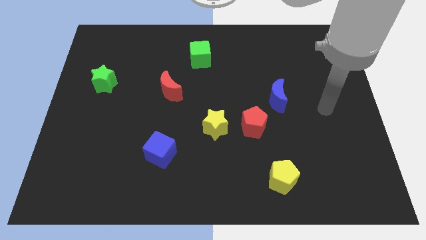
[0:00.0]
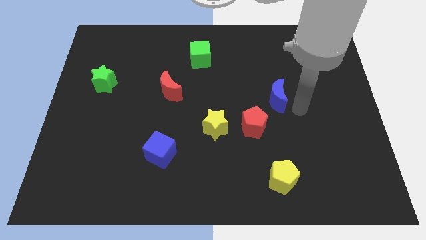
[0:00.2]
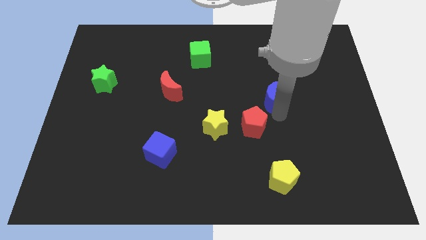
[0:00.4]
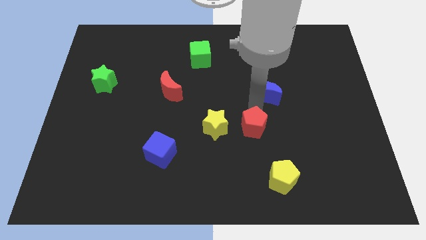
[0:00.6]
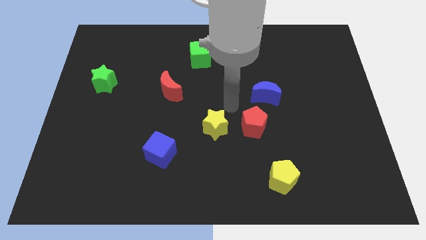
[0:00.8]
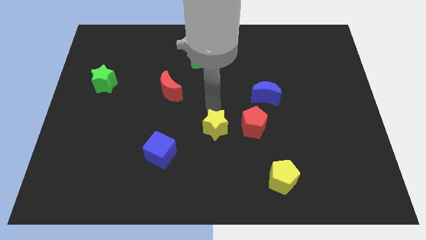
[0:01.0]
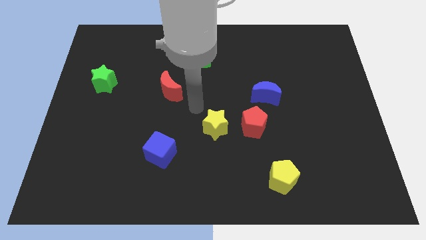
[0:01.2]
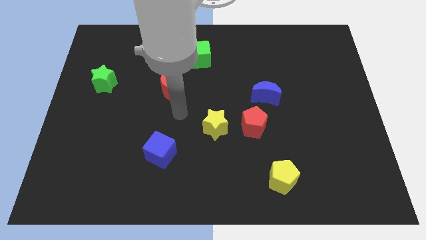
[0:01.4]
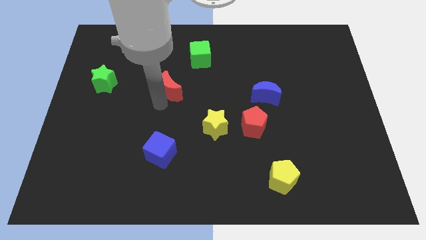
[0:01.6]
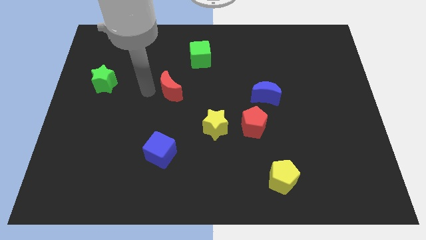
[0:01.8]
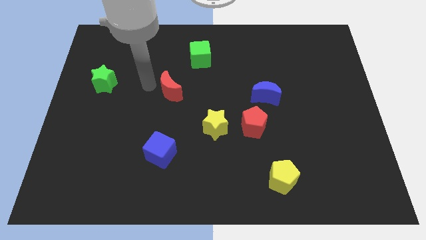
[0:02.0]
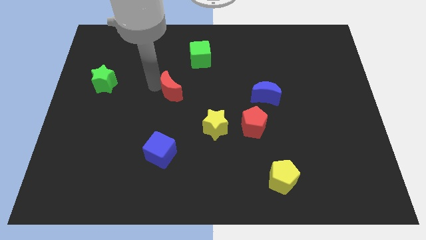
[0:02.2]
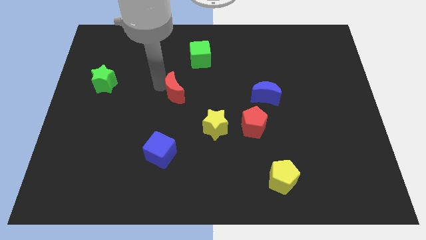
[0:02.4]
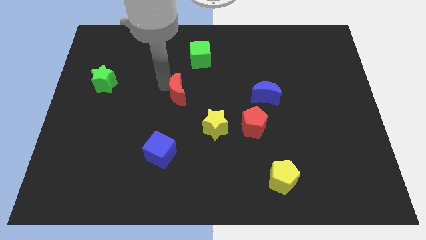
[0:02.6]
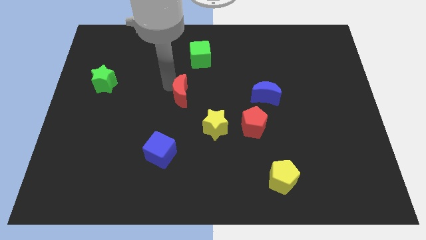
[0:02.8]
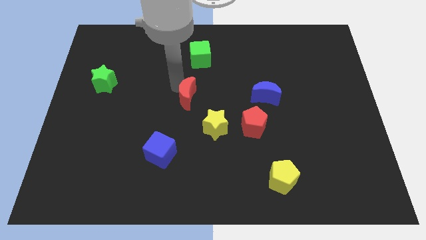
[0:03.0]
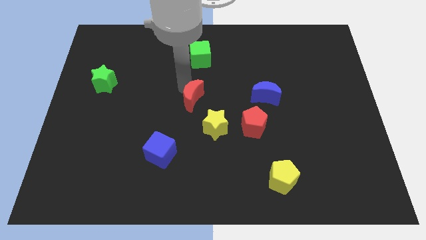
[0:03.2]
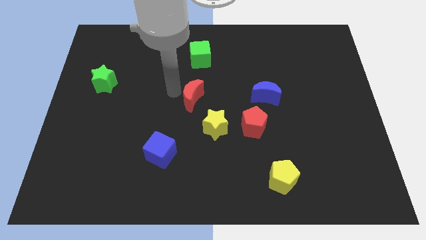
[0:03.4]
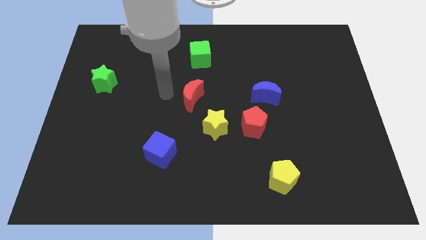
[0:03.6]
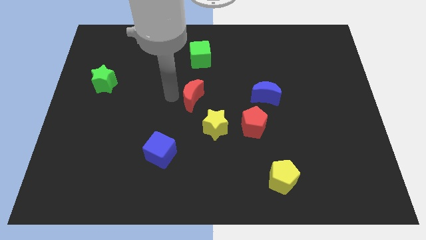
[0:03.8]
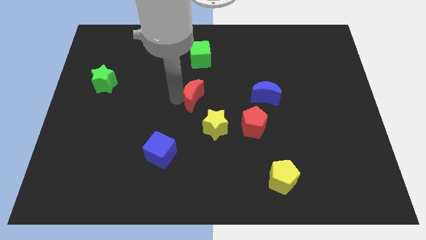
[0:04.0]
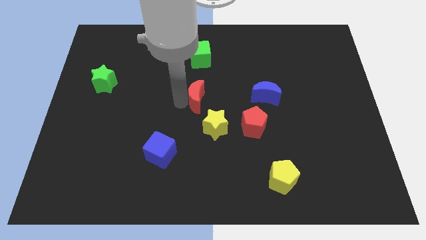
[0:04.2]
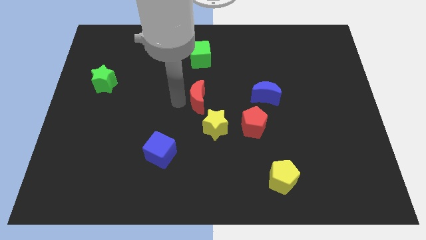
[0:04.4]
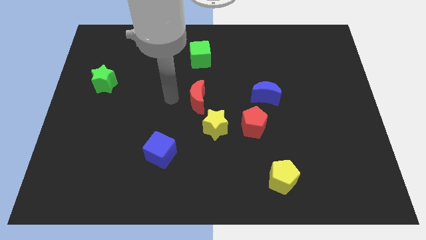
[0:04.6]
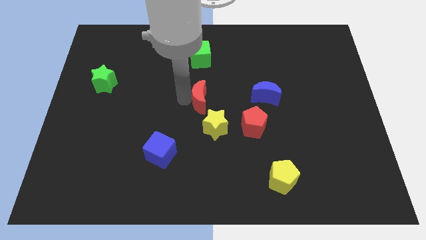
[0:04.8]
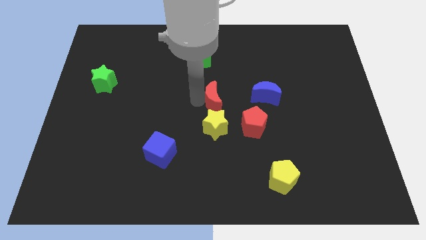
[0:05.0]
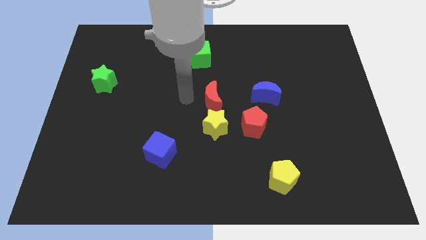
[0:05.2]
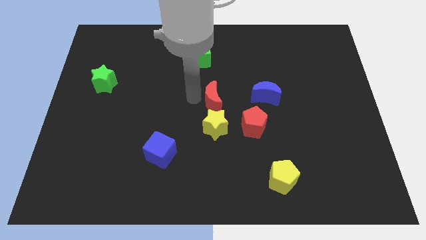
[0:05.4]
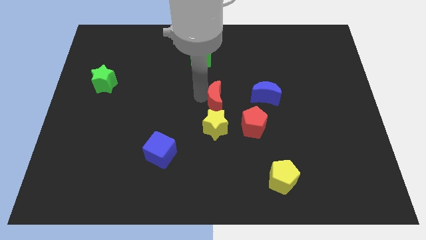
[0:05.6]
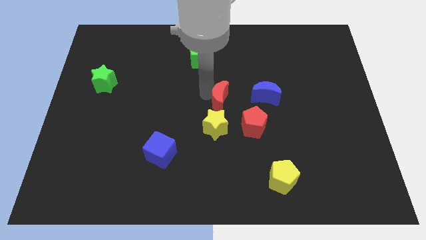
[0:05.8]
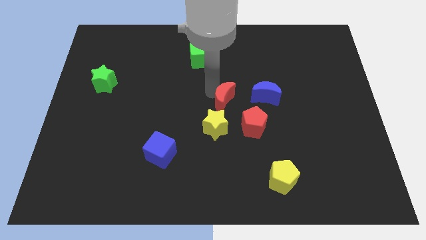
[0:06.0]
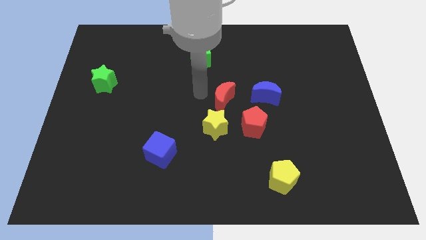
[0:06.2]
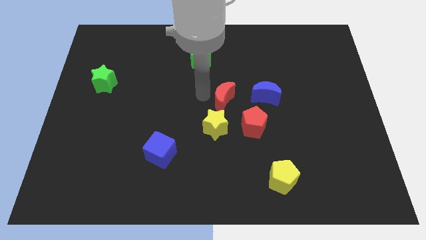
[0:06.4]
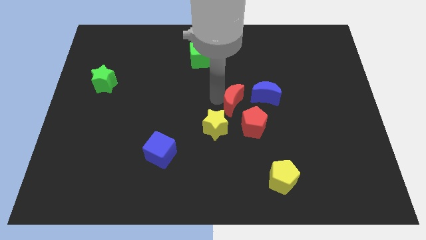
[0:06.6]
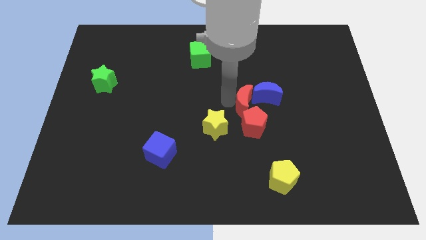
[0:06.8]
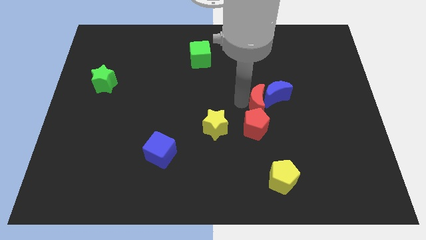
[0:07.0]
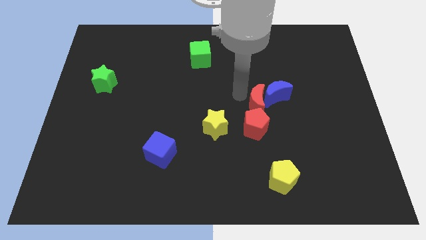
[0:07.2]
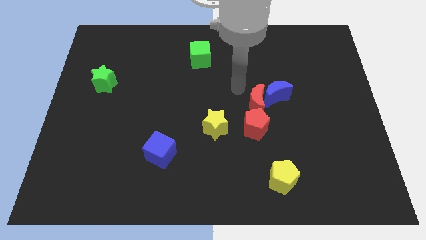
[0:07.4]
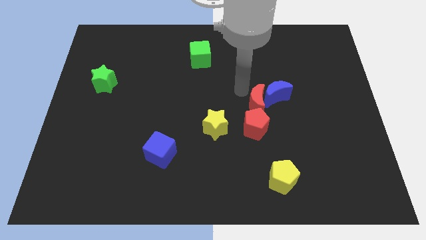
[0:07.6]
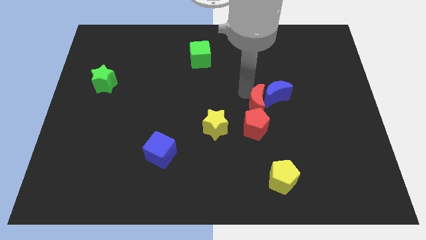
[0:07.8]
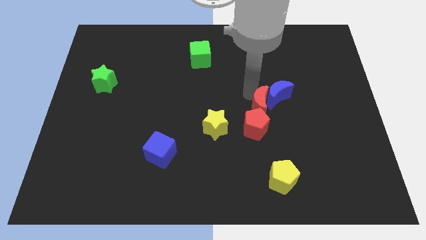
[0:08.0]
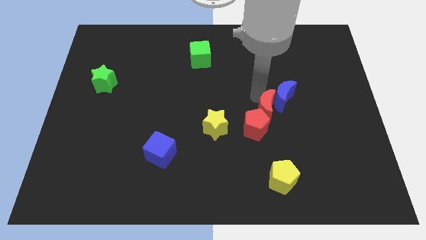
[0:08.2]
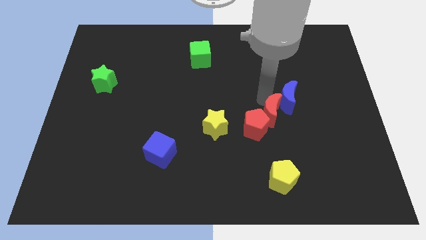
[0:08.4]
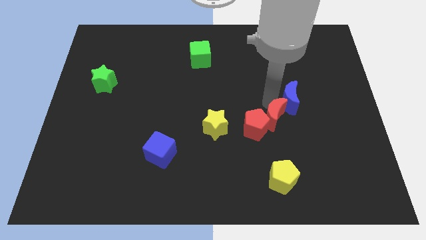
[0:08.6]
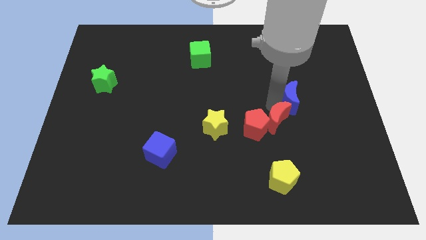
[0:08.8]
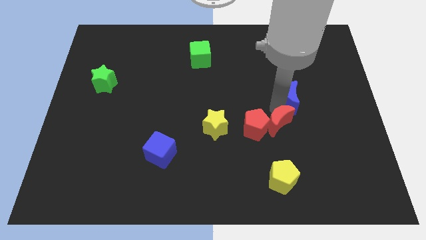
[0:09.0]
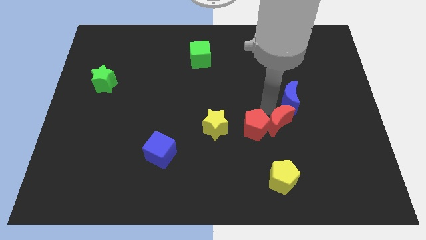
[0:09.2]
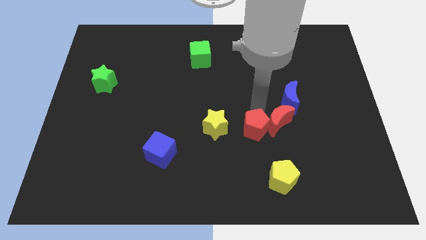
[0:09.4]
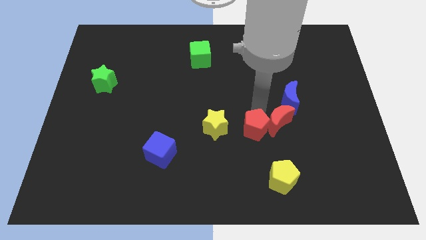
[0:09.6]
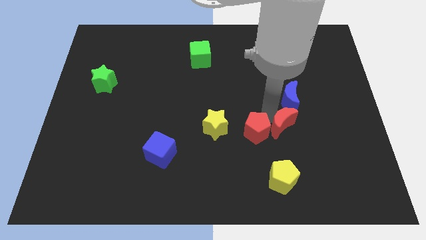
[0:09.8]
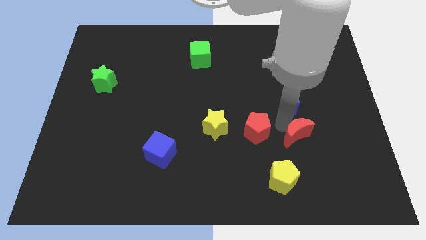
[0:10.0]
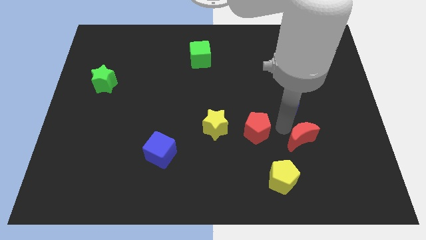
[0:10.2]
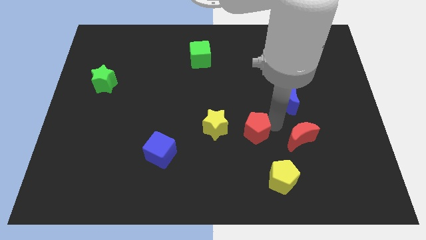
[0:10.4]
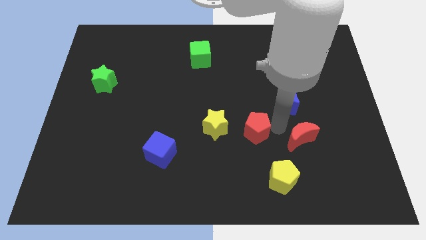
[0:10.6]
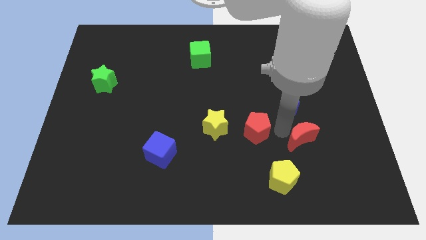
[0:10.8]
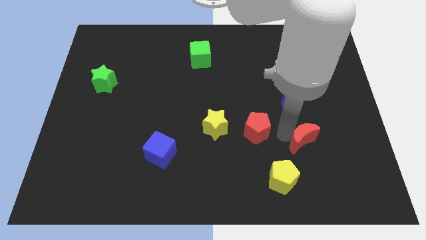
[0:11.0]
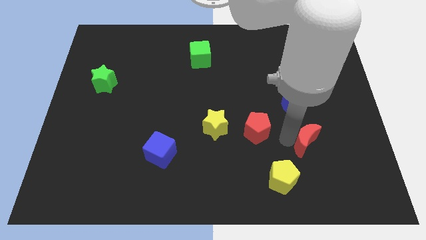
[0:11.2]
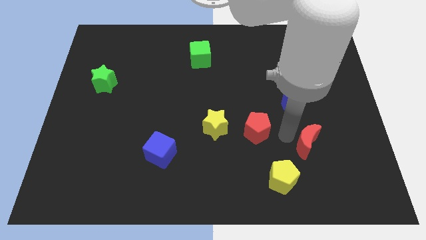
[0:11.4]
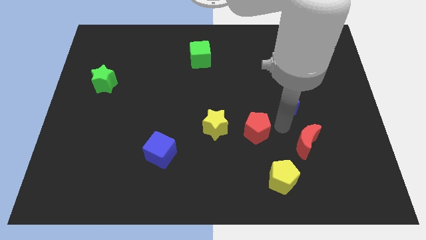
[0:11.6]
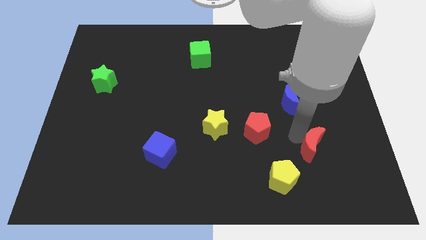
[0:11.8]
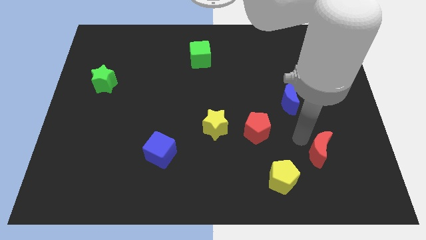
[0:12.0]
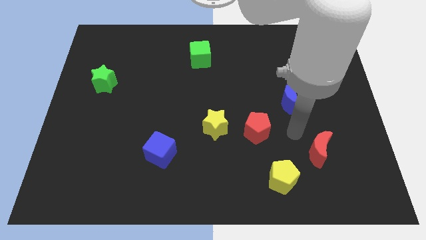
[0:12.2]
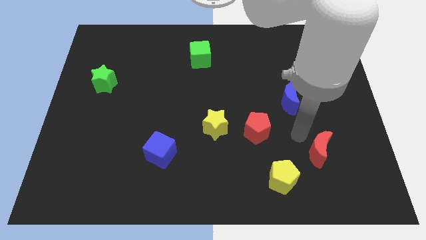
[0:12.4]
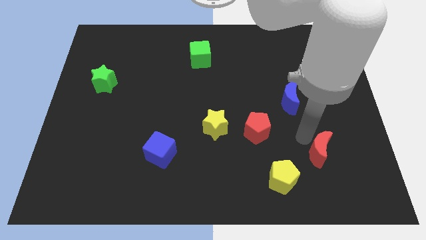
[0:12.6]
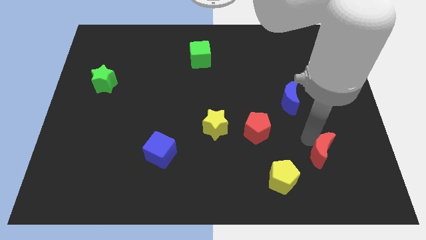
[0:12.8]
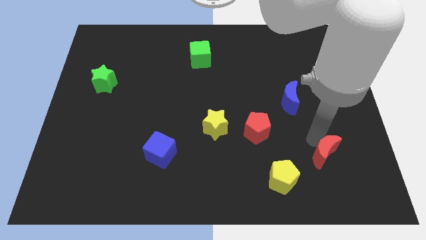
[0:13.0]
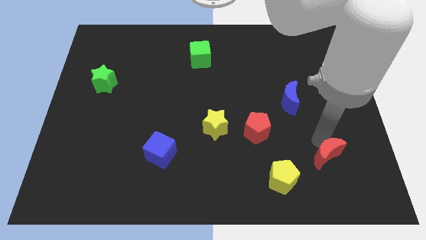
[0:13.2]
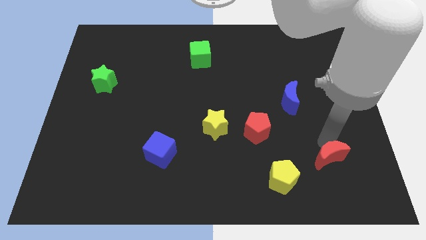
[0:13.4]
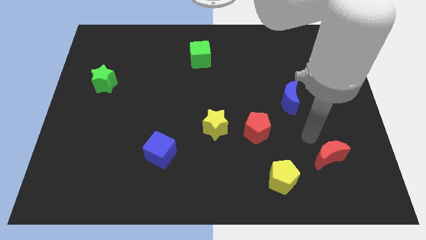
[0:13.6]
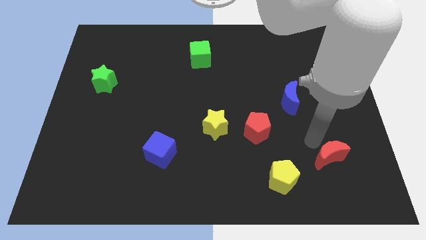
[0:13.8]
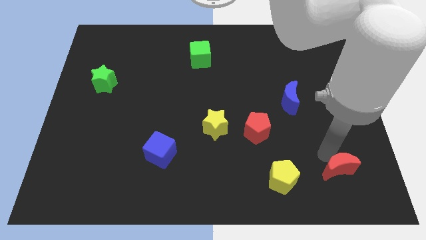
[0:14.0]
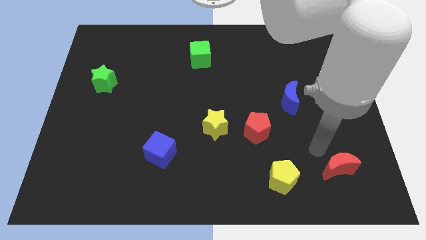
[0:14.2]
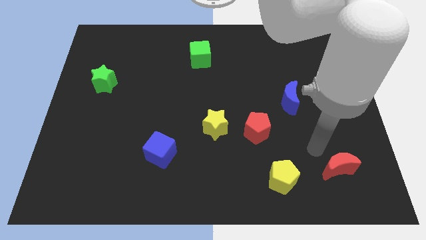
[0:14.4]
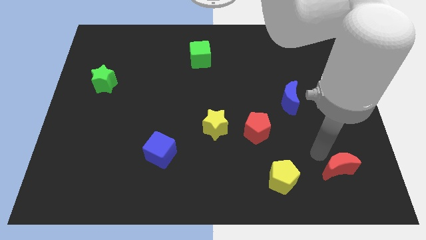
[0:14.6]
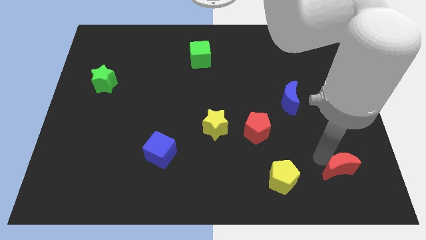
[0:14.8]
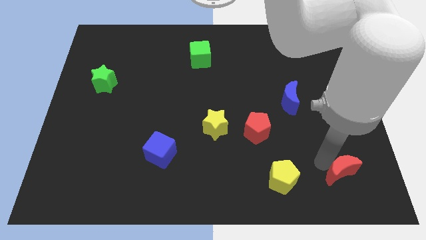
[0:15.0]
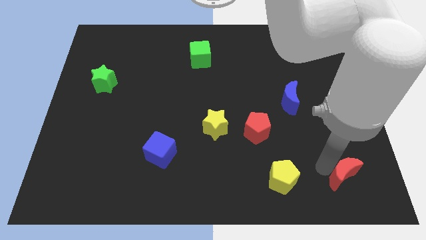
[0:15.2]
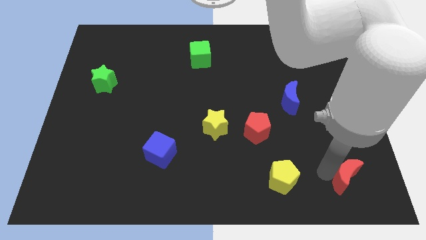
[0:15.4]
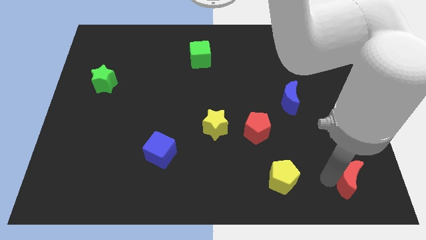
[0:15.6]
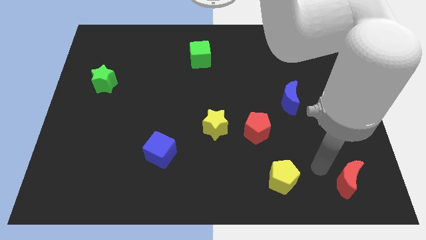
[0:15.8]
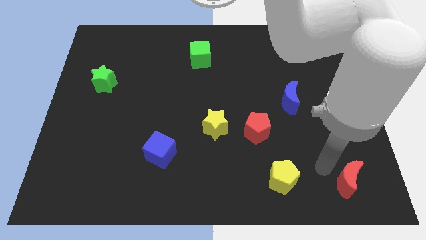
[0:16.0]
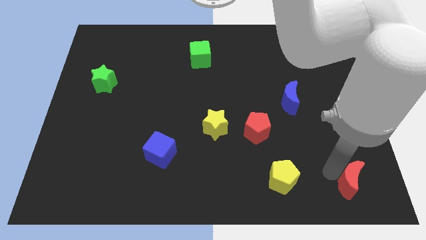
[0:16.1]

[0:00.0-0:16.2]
push the red moon to the lower right corner
